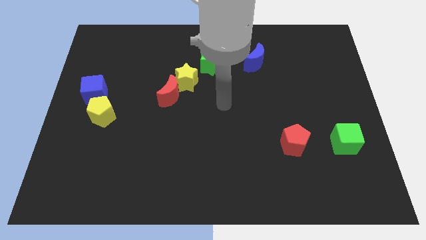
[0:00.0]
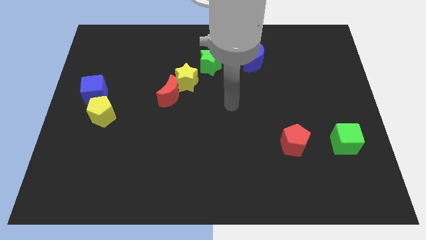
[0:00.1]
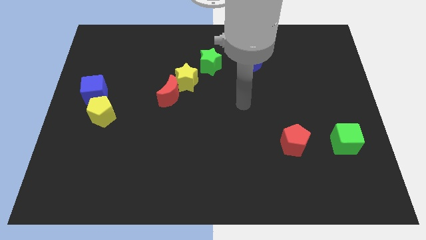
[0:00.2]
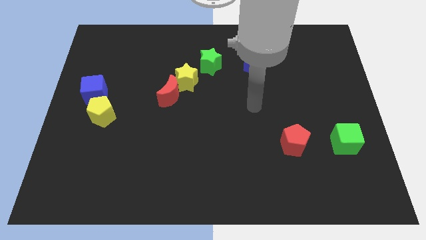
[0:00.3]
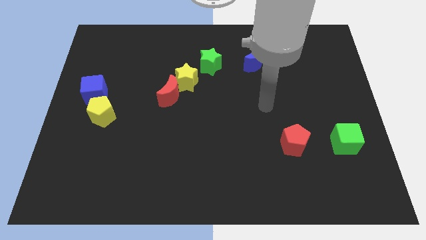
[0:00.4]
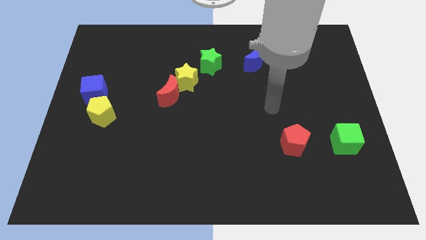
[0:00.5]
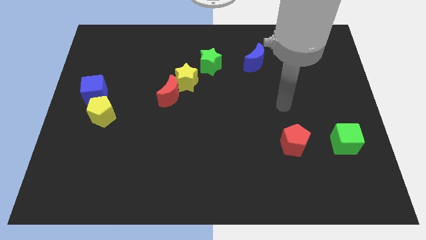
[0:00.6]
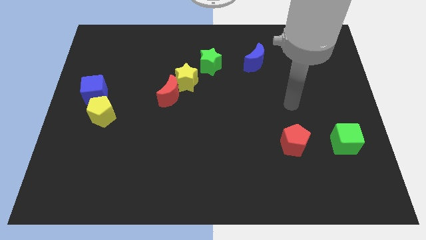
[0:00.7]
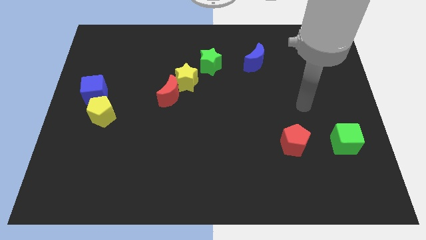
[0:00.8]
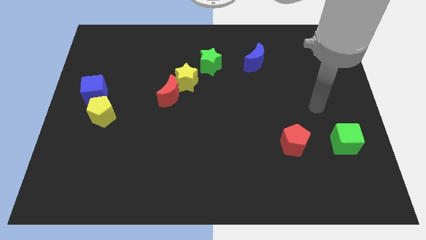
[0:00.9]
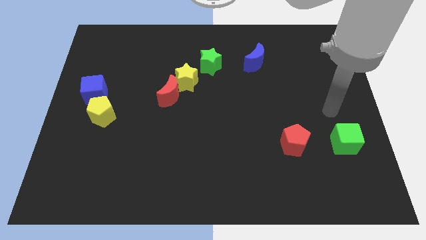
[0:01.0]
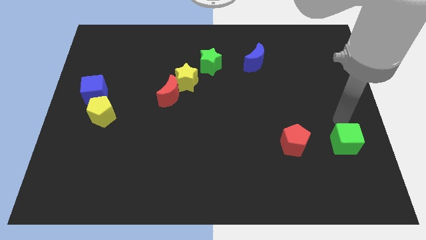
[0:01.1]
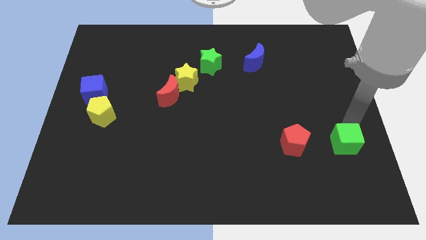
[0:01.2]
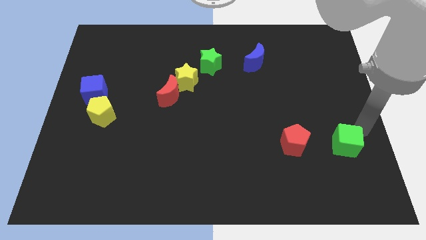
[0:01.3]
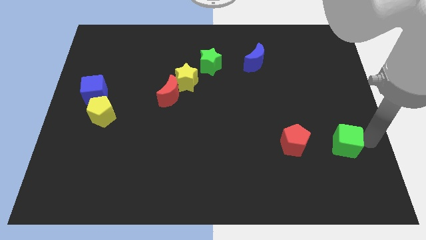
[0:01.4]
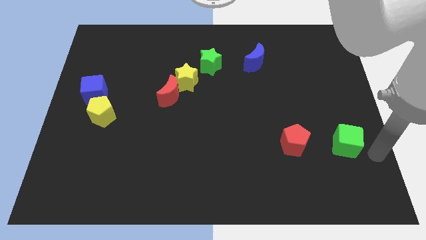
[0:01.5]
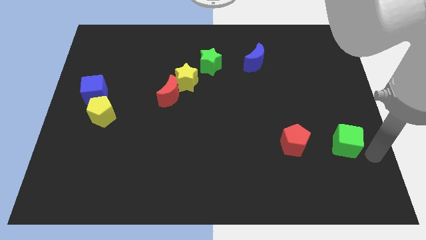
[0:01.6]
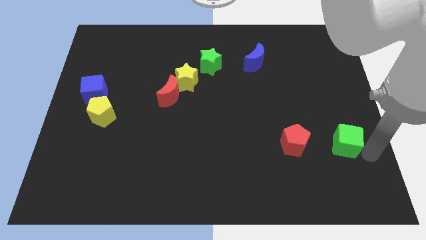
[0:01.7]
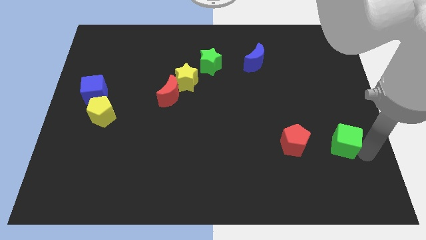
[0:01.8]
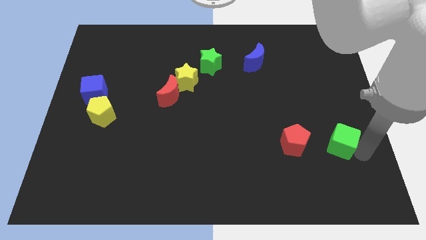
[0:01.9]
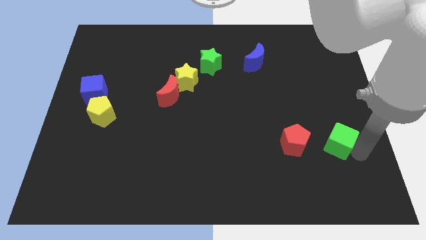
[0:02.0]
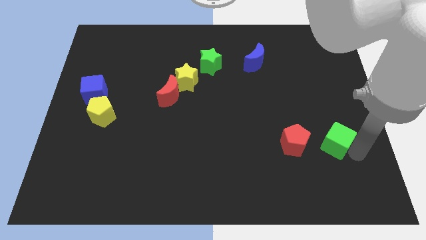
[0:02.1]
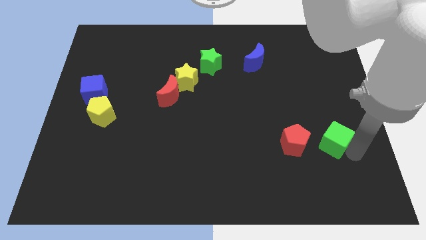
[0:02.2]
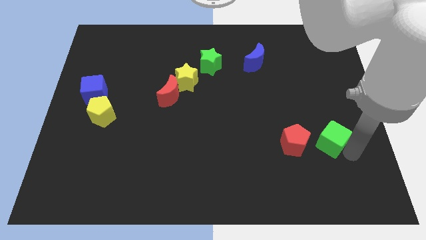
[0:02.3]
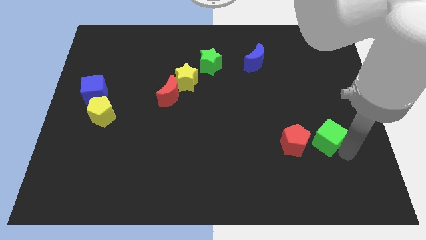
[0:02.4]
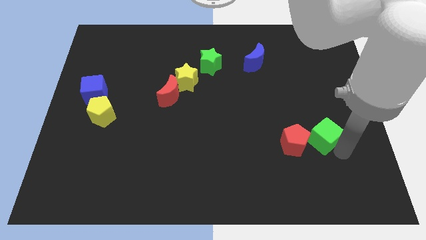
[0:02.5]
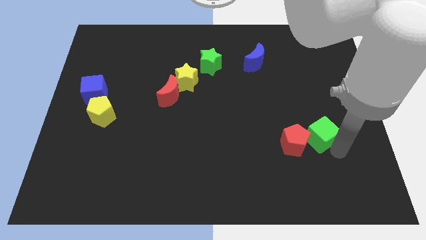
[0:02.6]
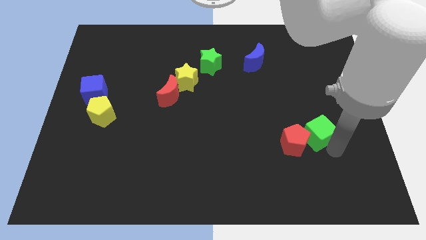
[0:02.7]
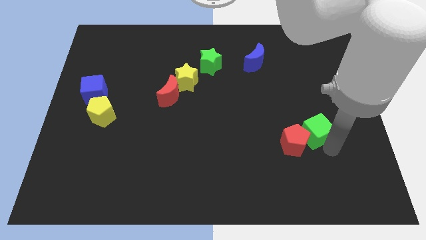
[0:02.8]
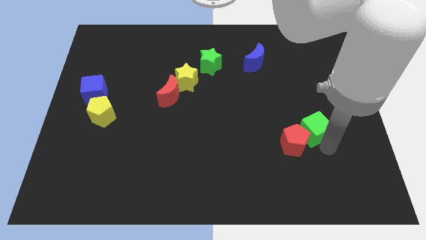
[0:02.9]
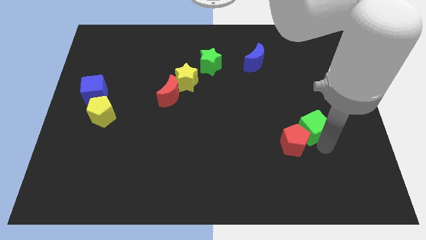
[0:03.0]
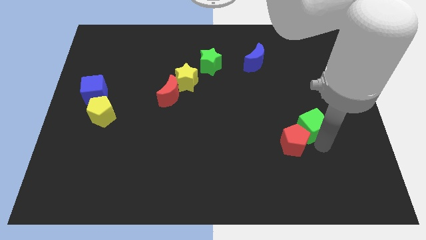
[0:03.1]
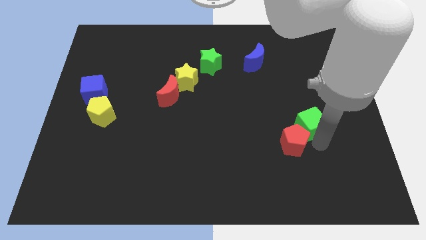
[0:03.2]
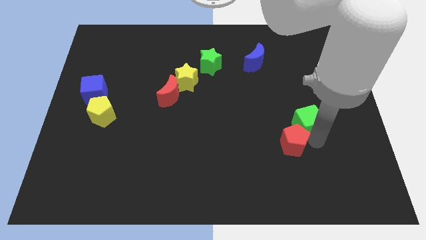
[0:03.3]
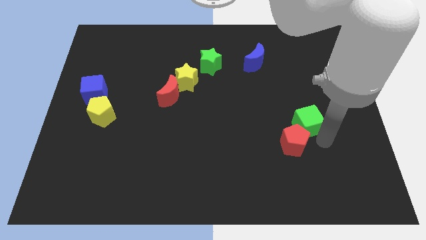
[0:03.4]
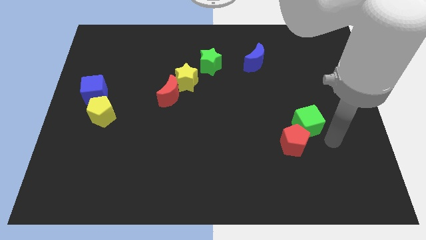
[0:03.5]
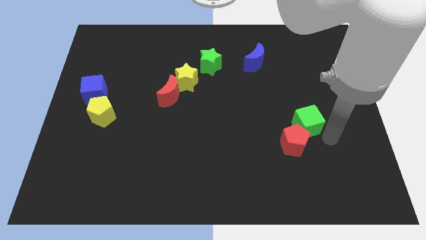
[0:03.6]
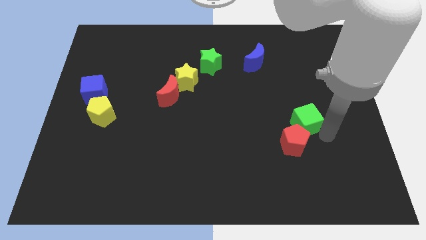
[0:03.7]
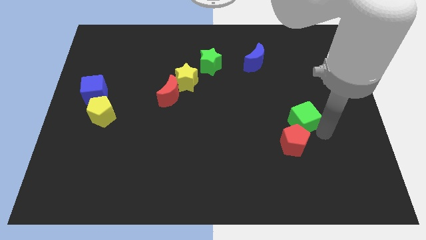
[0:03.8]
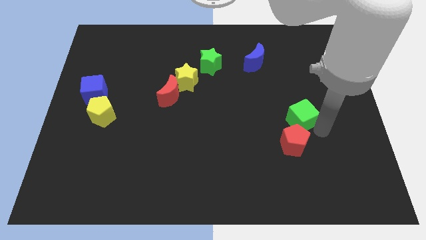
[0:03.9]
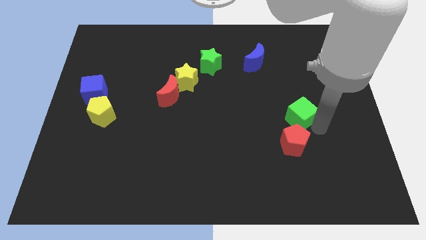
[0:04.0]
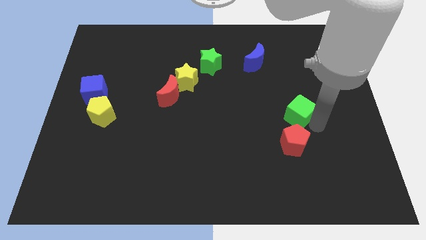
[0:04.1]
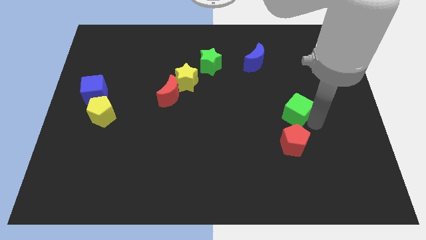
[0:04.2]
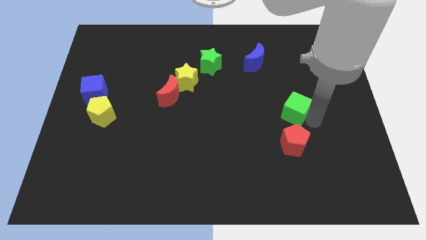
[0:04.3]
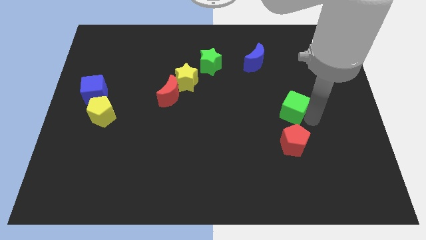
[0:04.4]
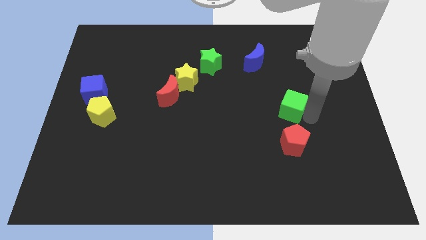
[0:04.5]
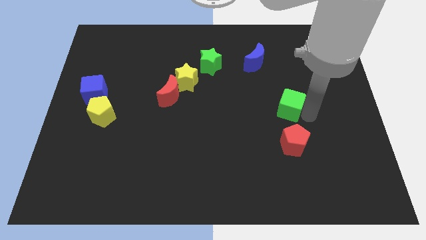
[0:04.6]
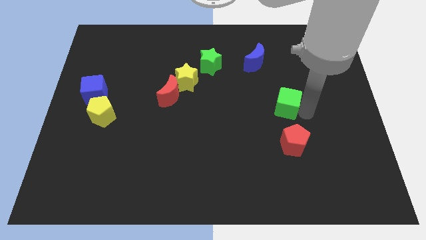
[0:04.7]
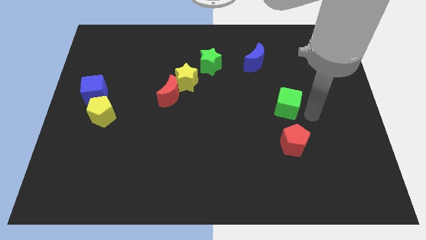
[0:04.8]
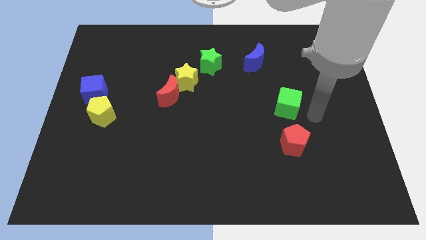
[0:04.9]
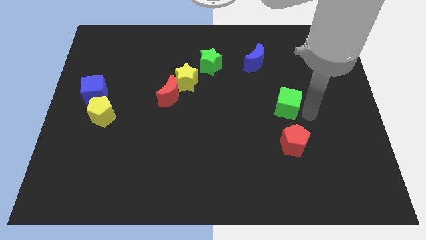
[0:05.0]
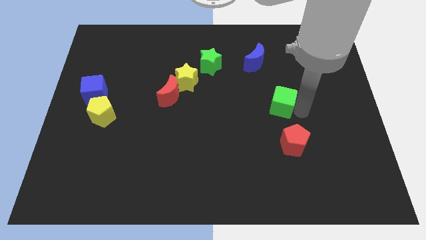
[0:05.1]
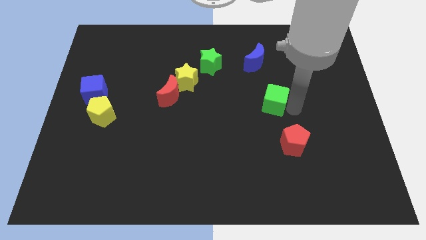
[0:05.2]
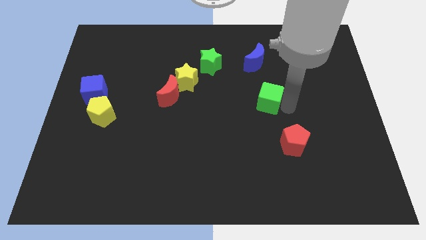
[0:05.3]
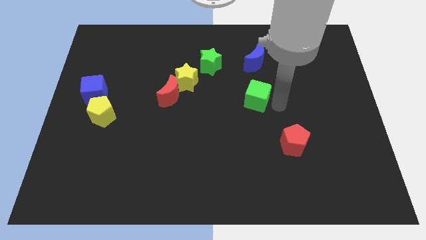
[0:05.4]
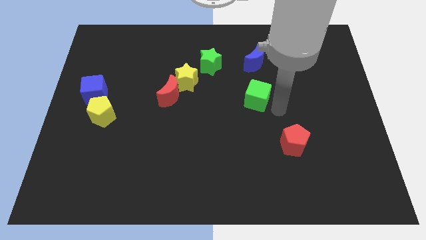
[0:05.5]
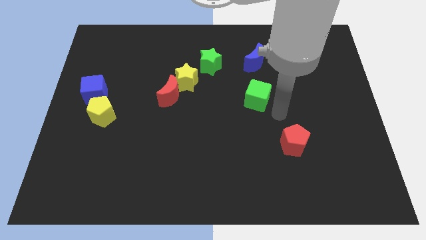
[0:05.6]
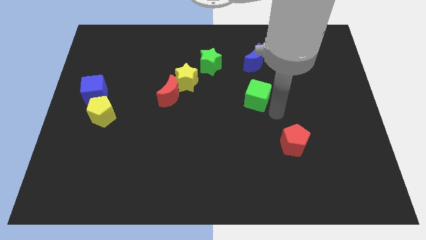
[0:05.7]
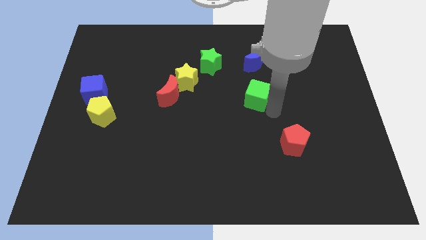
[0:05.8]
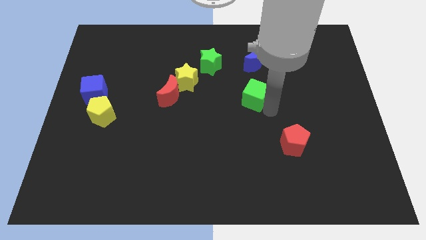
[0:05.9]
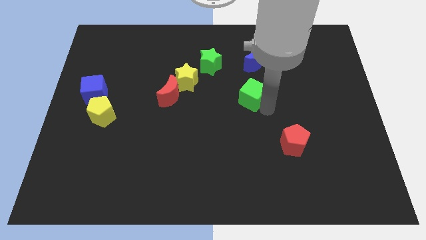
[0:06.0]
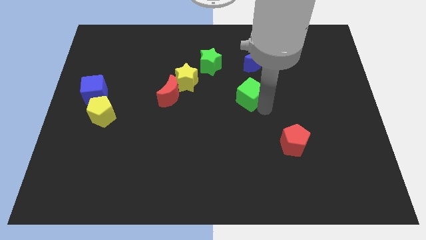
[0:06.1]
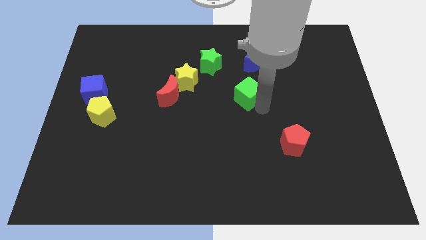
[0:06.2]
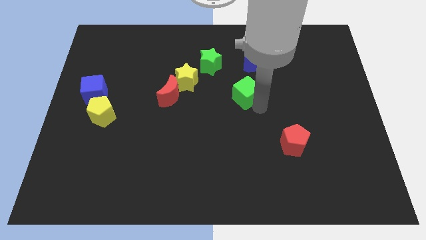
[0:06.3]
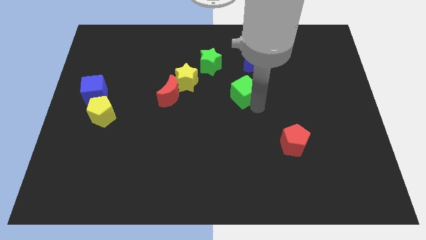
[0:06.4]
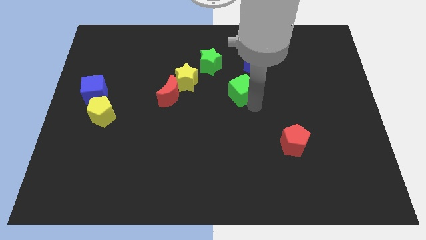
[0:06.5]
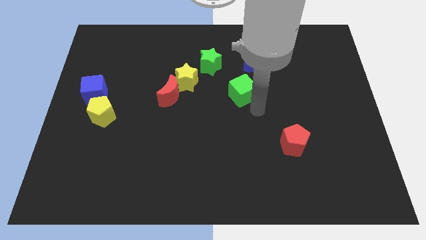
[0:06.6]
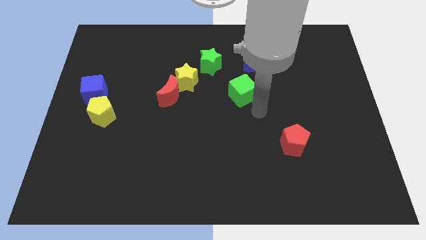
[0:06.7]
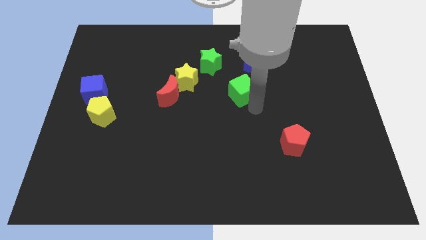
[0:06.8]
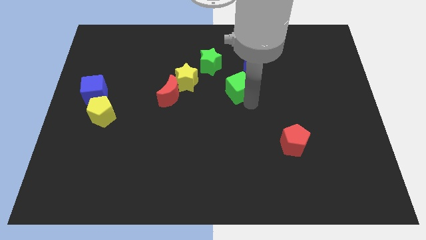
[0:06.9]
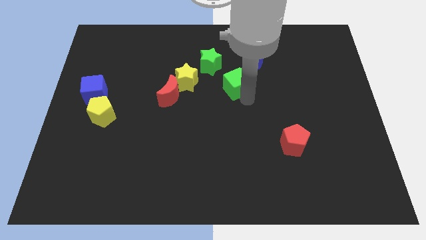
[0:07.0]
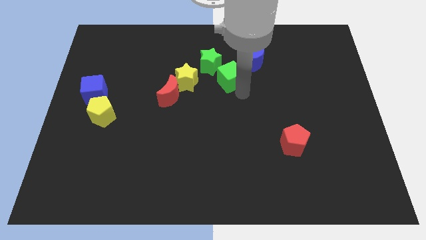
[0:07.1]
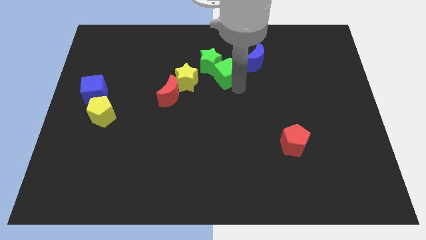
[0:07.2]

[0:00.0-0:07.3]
push the green cube close to the green star
